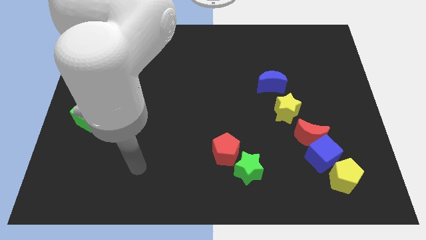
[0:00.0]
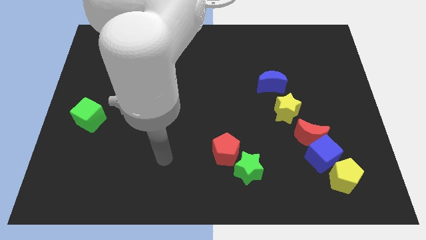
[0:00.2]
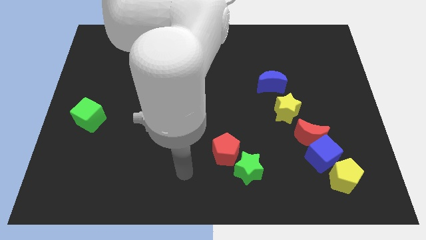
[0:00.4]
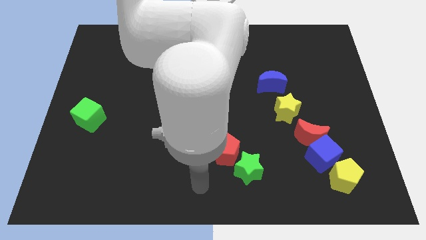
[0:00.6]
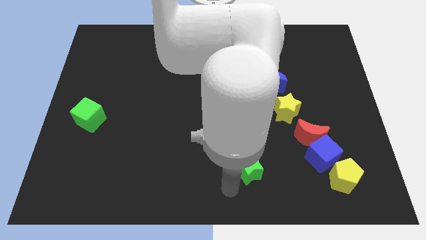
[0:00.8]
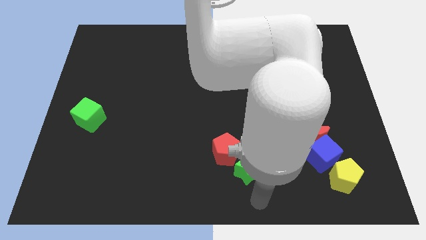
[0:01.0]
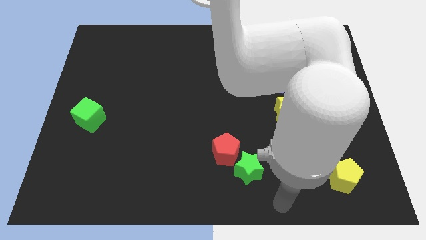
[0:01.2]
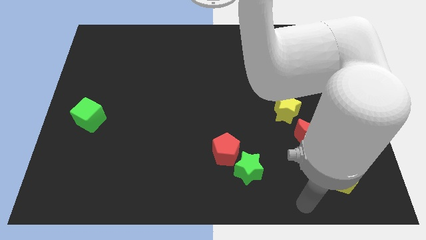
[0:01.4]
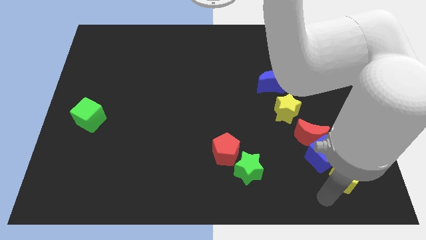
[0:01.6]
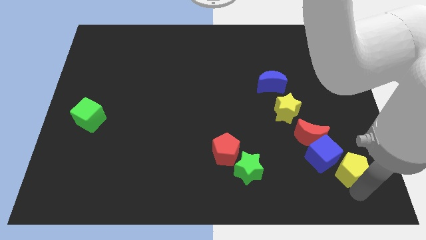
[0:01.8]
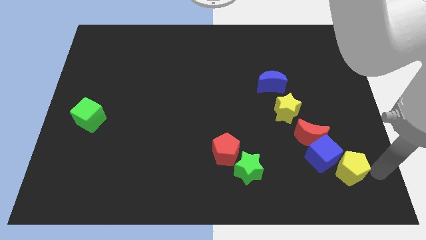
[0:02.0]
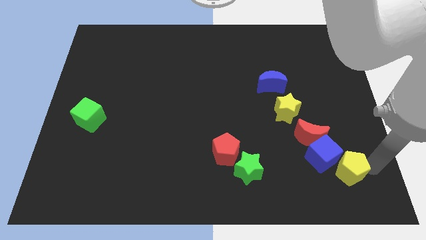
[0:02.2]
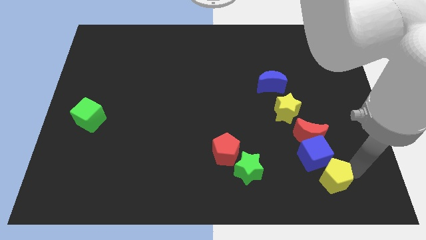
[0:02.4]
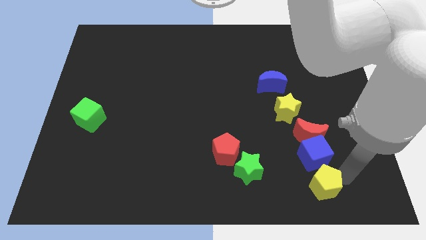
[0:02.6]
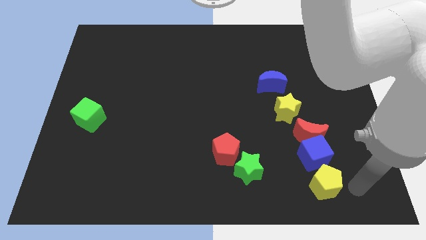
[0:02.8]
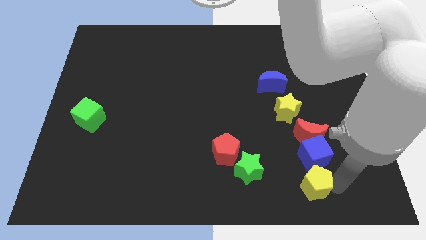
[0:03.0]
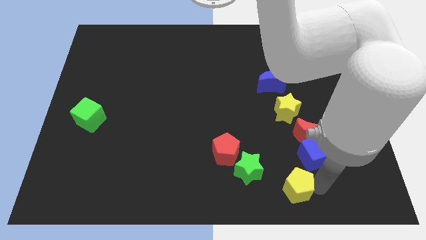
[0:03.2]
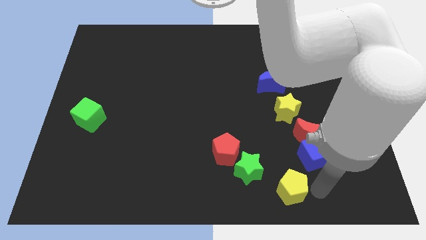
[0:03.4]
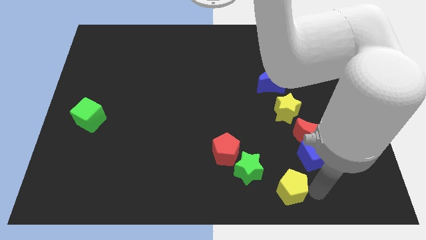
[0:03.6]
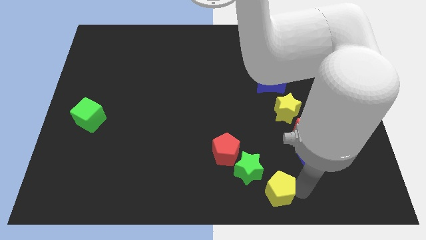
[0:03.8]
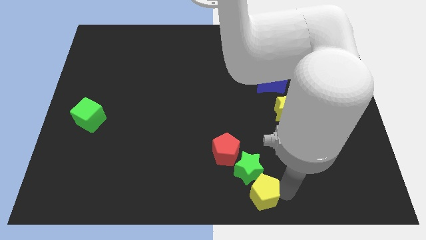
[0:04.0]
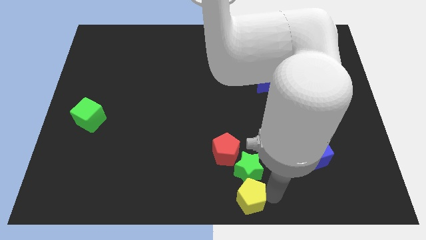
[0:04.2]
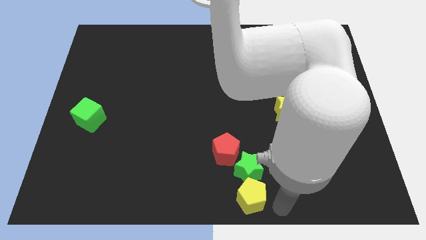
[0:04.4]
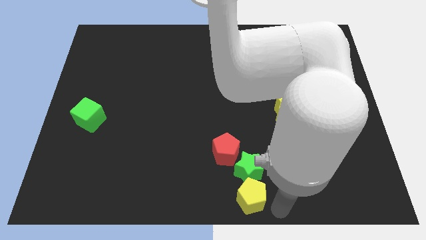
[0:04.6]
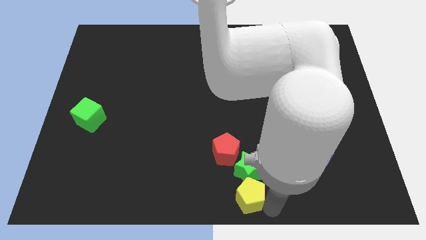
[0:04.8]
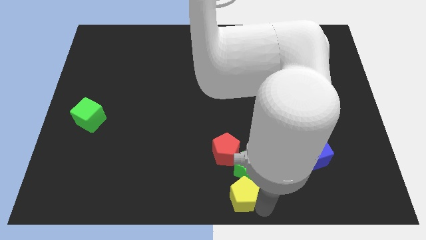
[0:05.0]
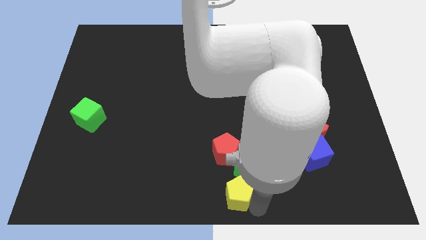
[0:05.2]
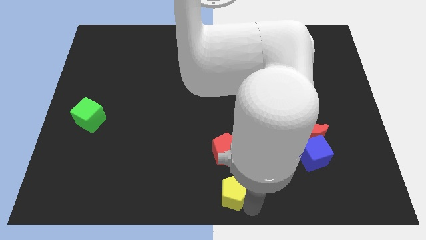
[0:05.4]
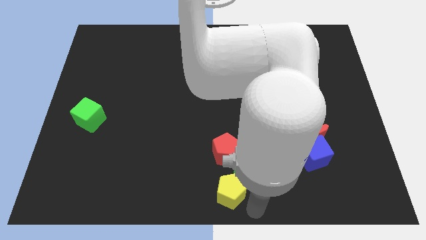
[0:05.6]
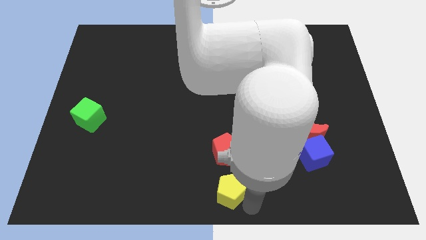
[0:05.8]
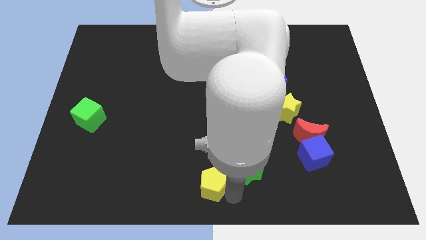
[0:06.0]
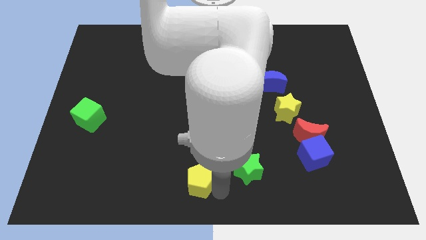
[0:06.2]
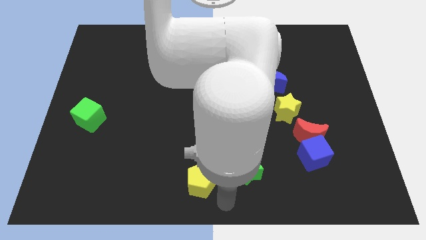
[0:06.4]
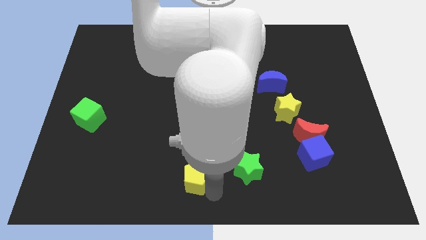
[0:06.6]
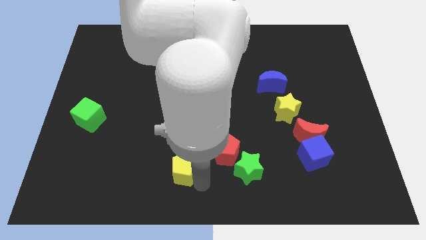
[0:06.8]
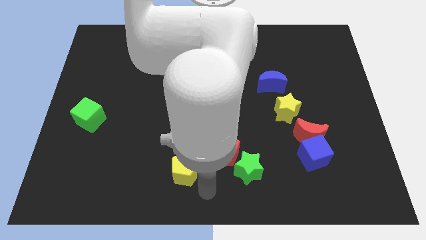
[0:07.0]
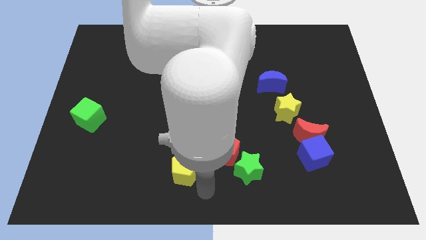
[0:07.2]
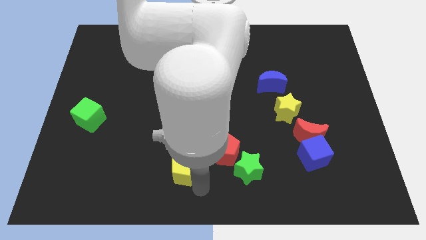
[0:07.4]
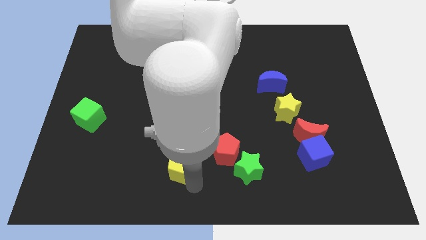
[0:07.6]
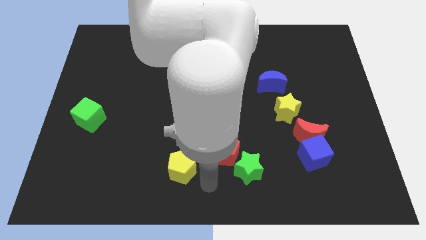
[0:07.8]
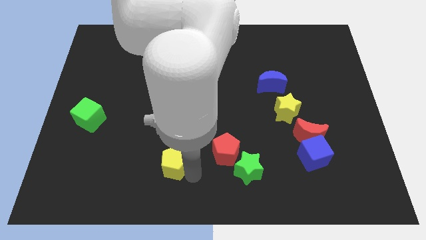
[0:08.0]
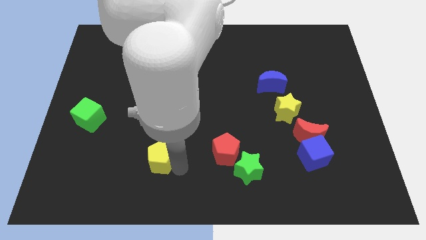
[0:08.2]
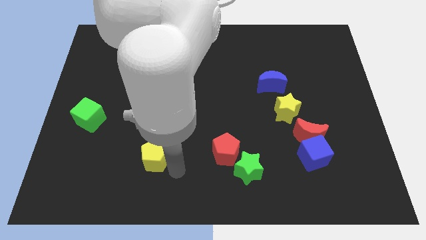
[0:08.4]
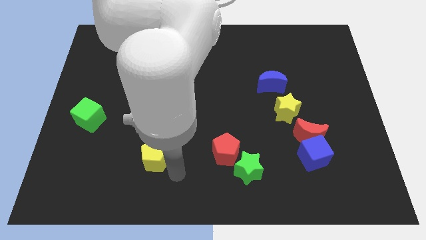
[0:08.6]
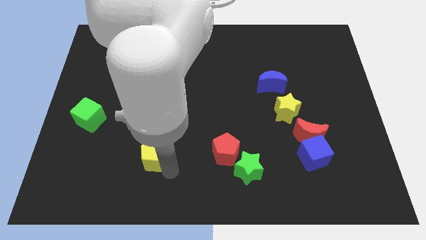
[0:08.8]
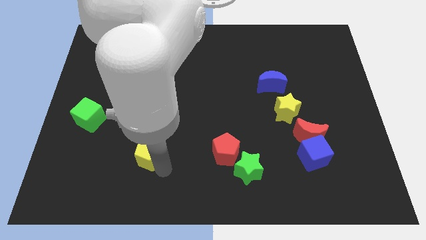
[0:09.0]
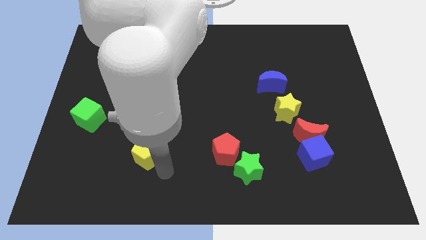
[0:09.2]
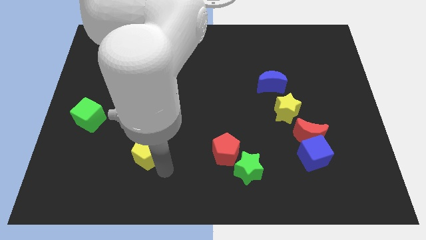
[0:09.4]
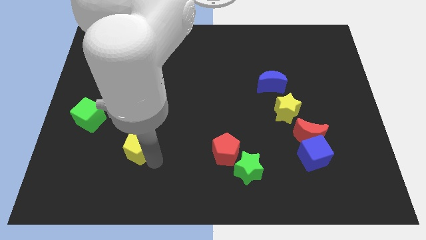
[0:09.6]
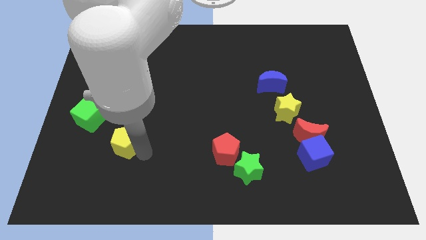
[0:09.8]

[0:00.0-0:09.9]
put the yellow pentagon to the bottom right side of the green cube

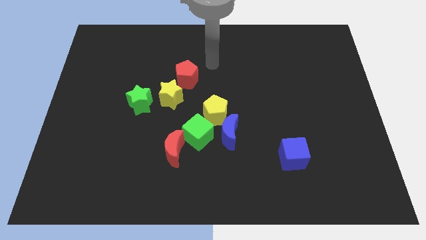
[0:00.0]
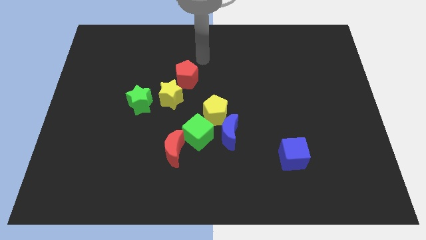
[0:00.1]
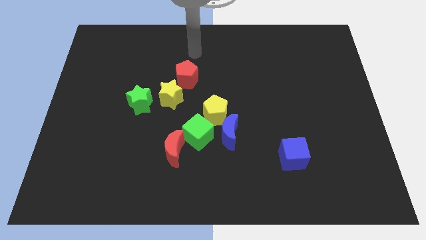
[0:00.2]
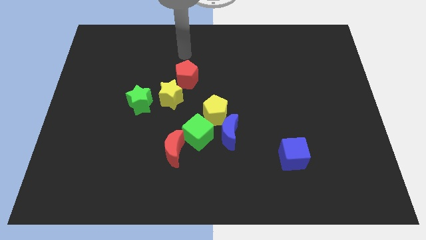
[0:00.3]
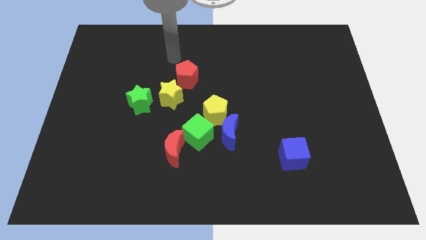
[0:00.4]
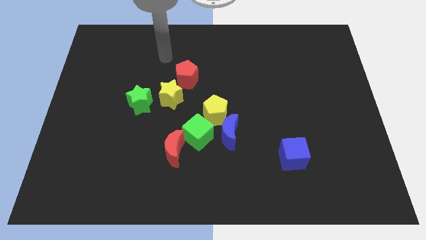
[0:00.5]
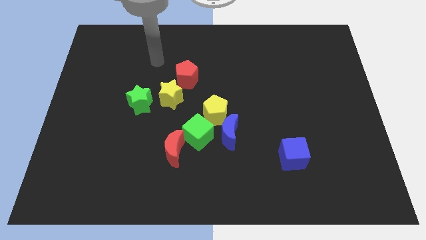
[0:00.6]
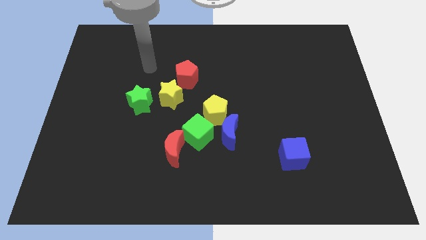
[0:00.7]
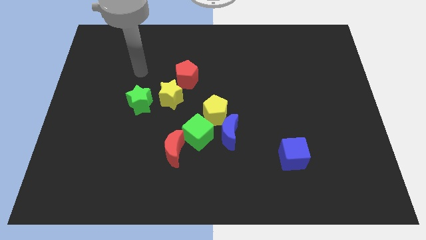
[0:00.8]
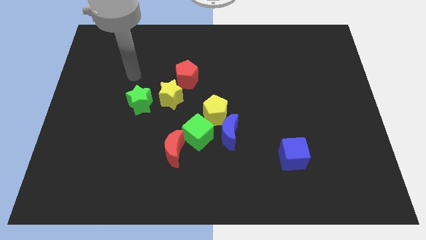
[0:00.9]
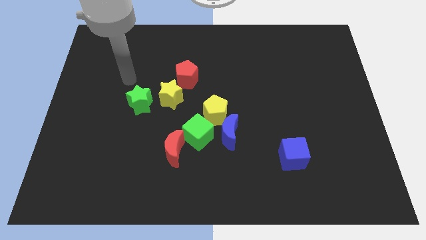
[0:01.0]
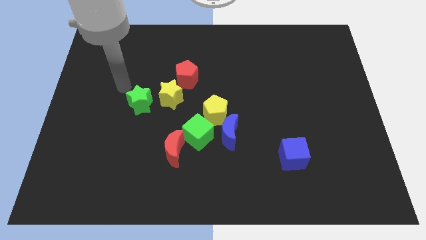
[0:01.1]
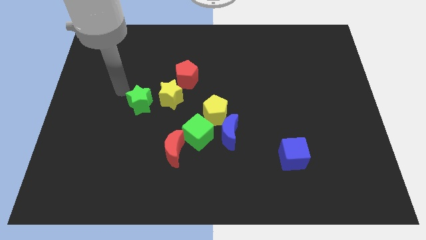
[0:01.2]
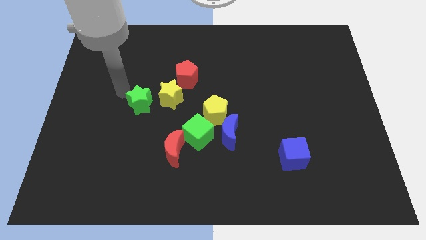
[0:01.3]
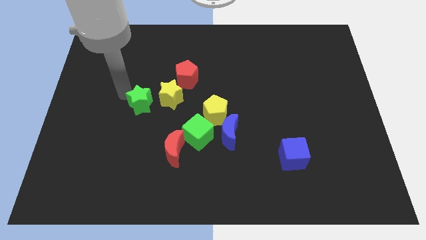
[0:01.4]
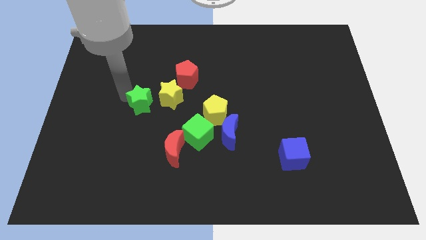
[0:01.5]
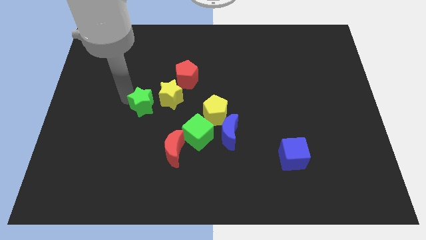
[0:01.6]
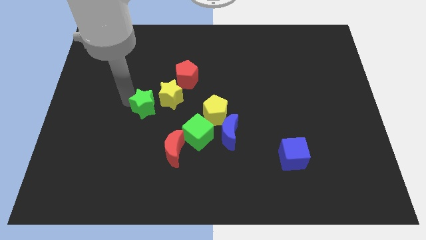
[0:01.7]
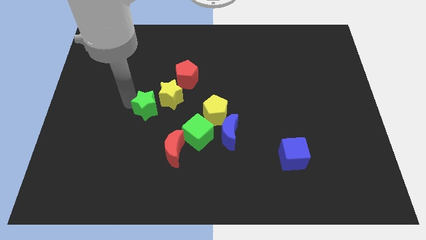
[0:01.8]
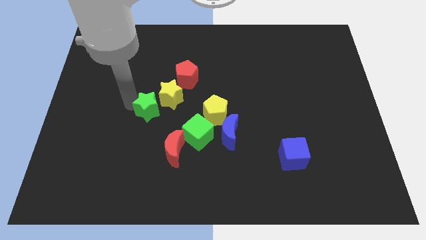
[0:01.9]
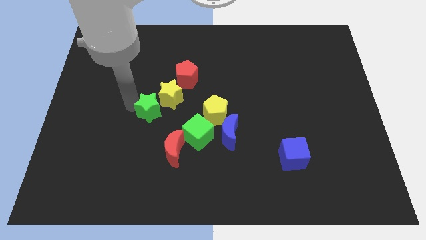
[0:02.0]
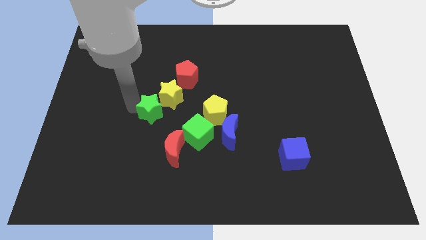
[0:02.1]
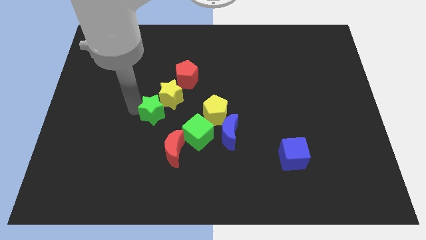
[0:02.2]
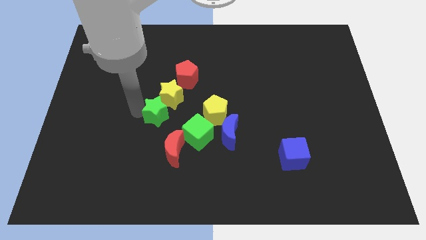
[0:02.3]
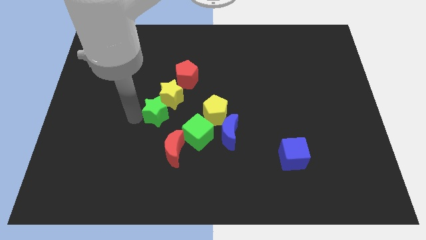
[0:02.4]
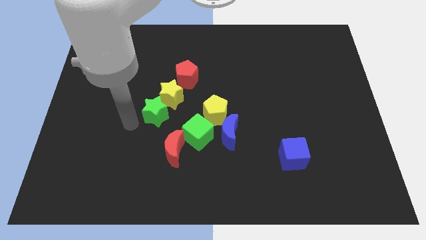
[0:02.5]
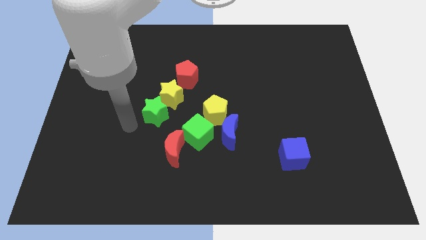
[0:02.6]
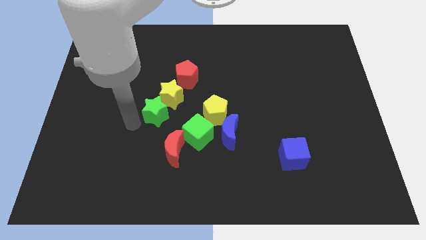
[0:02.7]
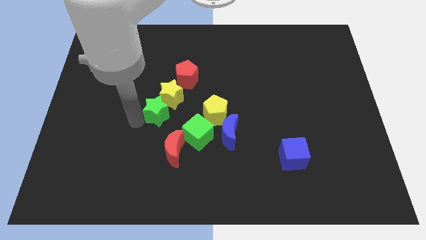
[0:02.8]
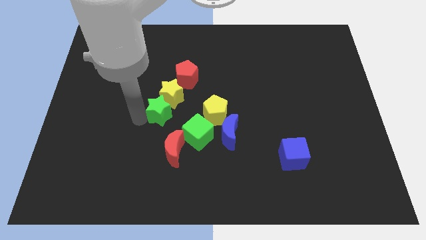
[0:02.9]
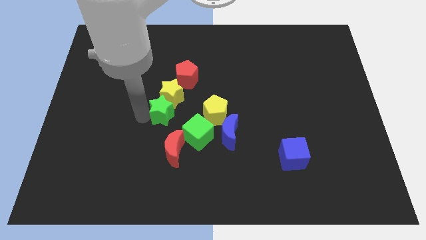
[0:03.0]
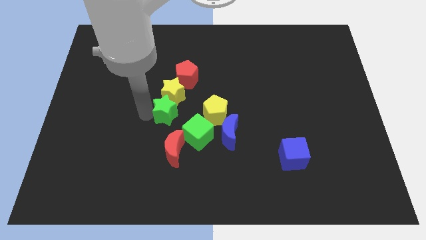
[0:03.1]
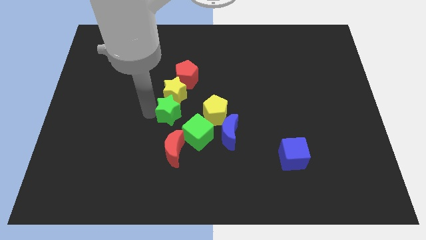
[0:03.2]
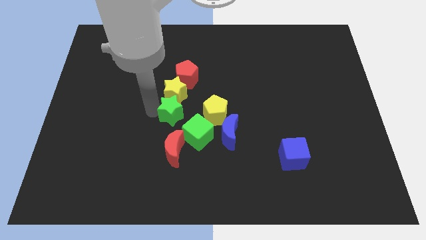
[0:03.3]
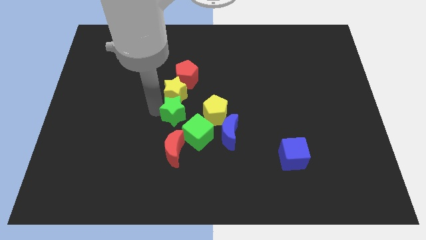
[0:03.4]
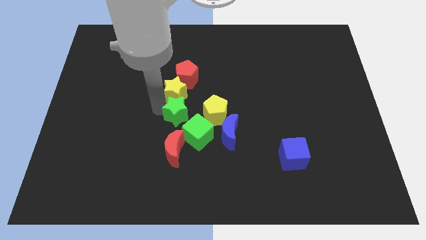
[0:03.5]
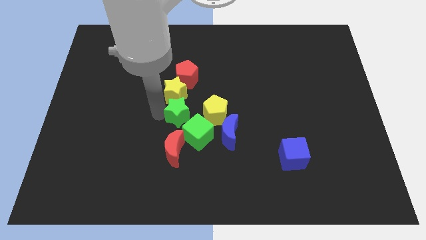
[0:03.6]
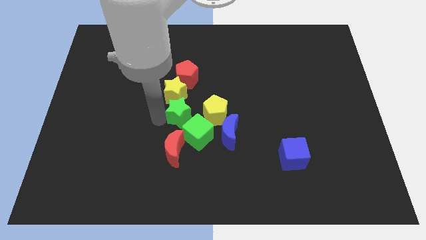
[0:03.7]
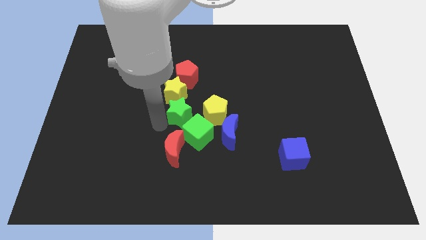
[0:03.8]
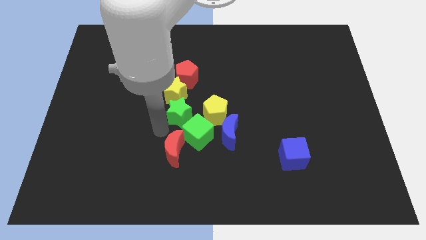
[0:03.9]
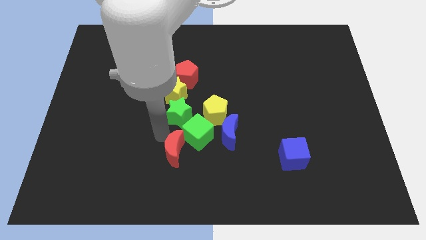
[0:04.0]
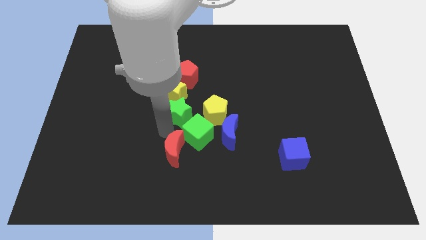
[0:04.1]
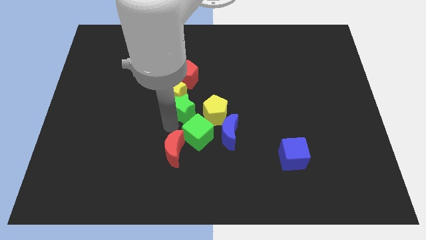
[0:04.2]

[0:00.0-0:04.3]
move the green star to the top left of the yellow pentagon
